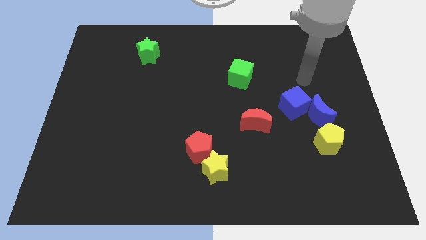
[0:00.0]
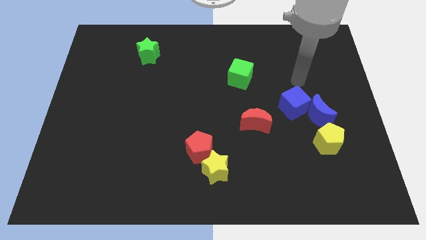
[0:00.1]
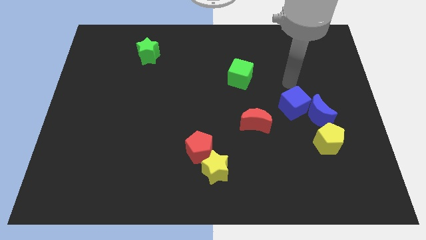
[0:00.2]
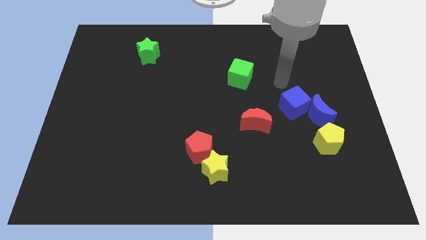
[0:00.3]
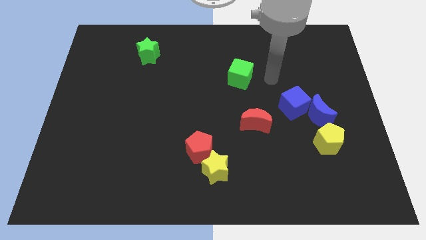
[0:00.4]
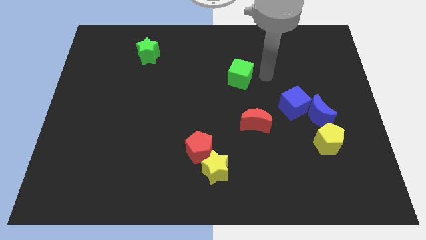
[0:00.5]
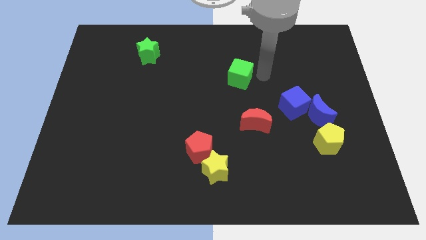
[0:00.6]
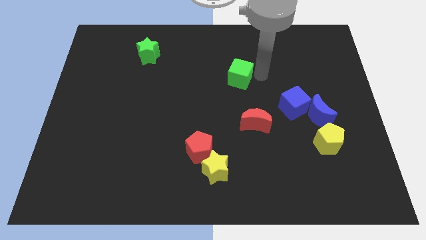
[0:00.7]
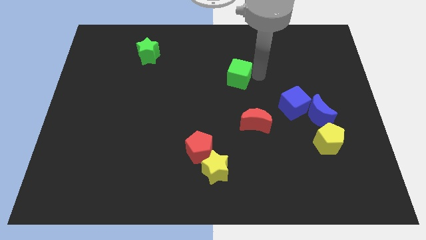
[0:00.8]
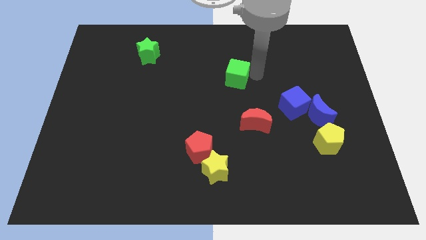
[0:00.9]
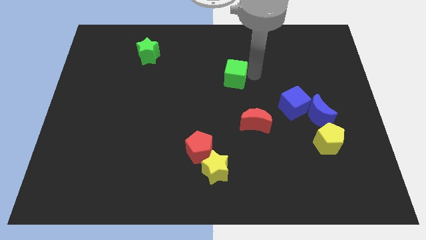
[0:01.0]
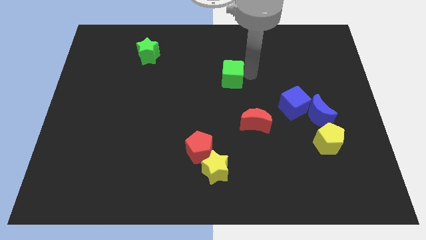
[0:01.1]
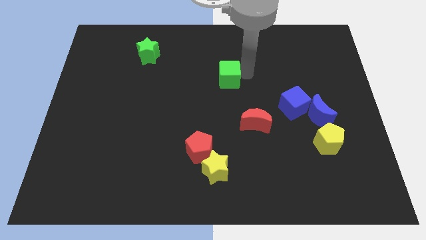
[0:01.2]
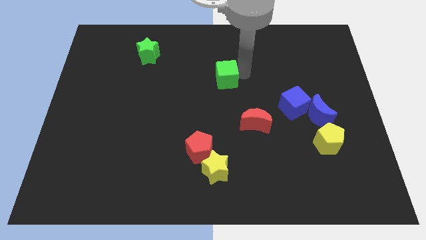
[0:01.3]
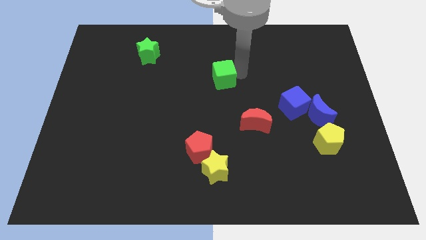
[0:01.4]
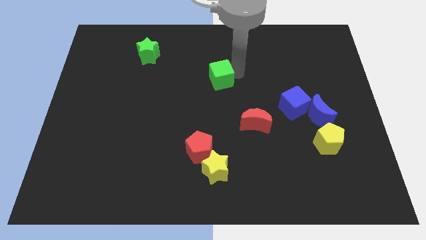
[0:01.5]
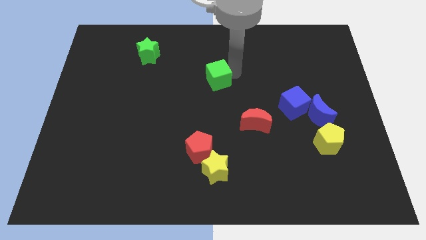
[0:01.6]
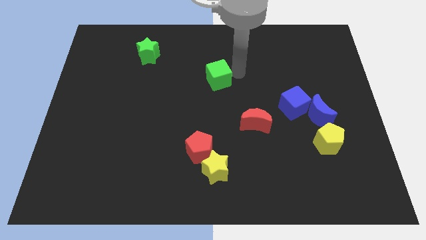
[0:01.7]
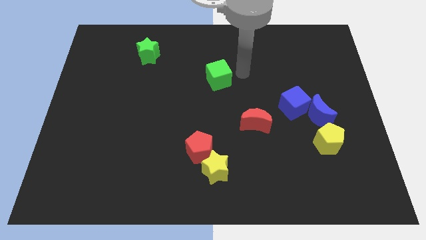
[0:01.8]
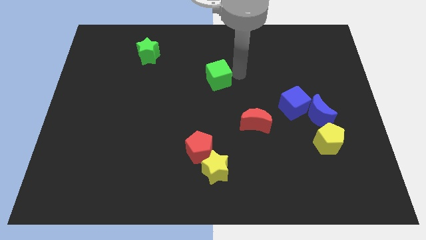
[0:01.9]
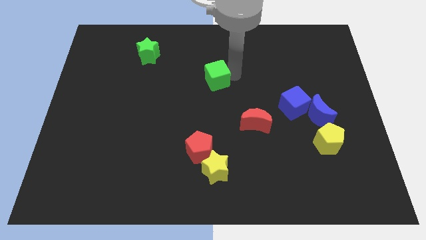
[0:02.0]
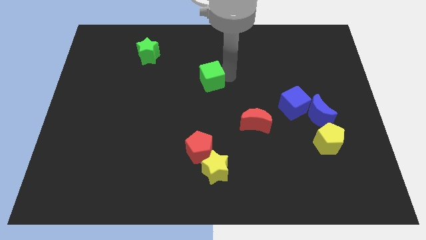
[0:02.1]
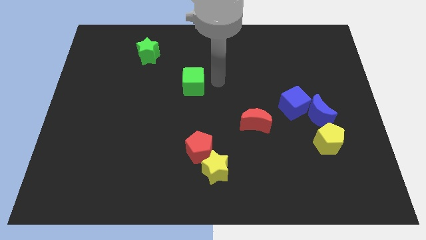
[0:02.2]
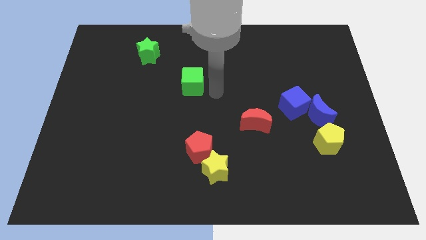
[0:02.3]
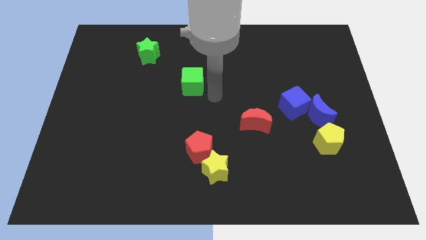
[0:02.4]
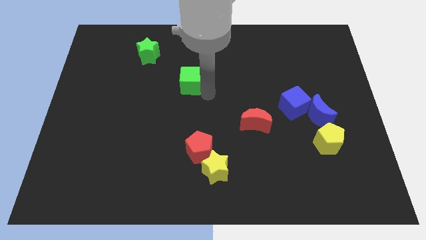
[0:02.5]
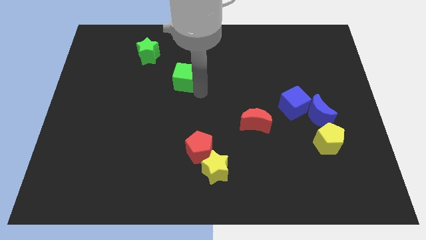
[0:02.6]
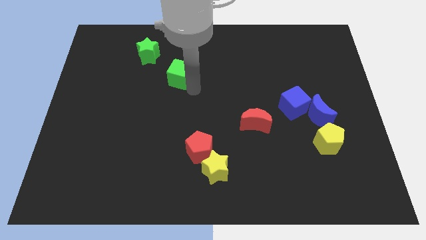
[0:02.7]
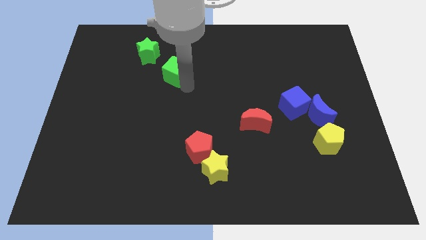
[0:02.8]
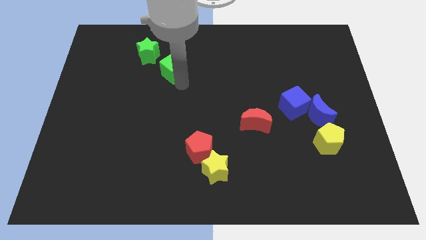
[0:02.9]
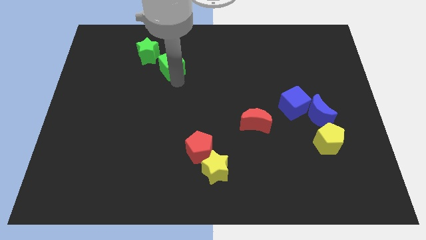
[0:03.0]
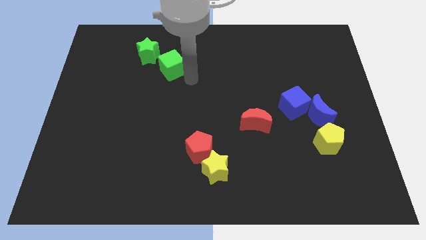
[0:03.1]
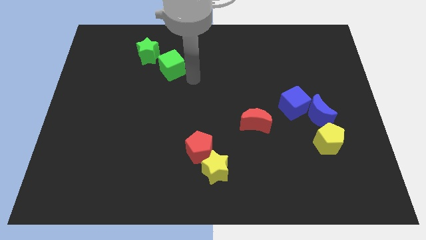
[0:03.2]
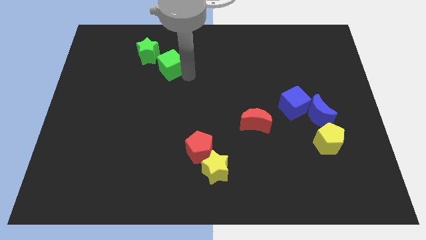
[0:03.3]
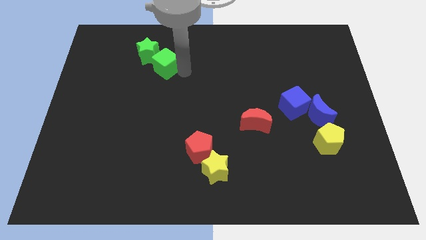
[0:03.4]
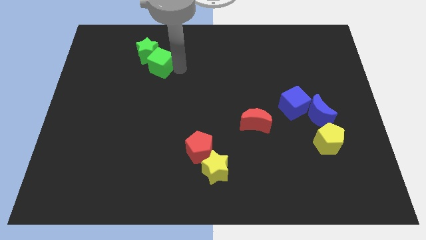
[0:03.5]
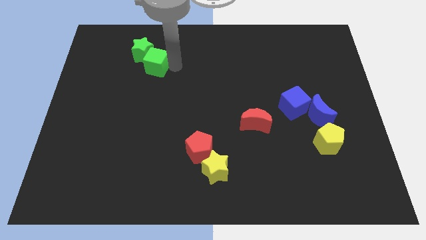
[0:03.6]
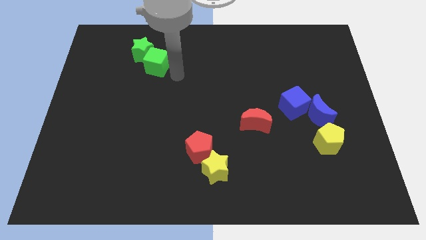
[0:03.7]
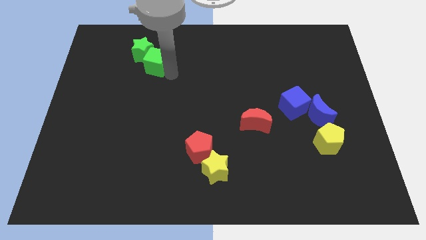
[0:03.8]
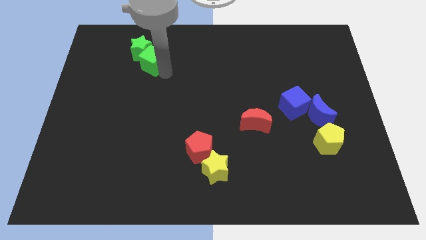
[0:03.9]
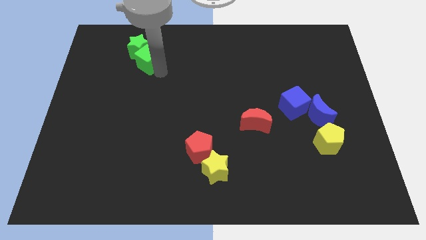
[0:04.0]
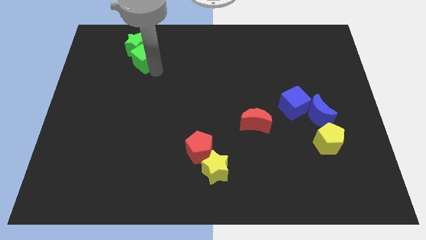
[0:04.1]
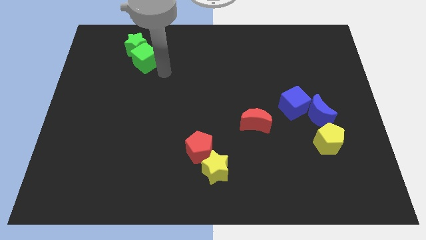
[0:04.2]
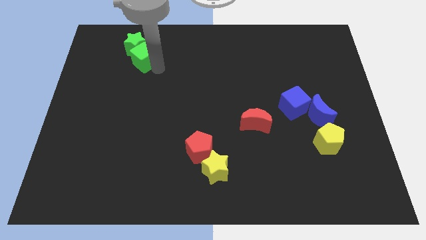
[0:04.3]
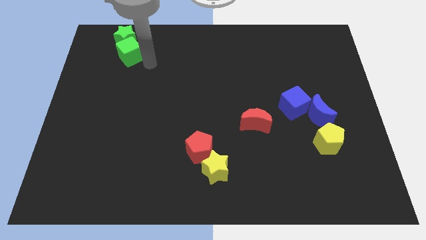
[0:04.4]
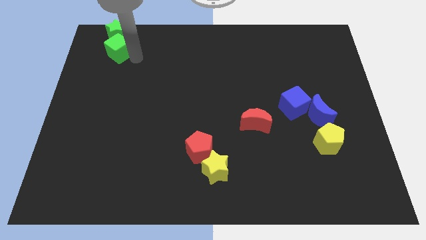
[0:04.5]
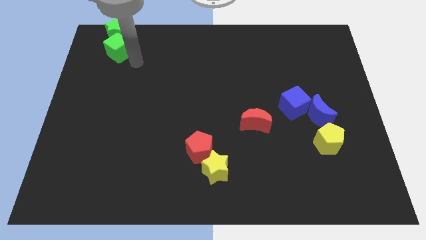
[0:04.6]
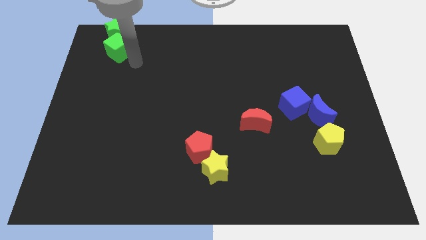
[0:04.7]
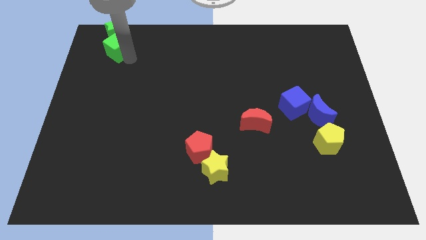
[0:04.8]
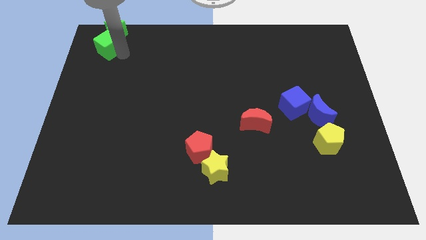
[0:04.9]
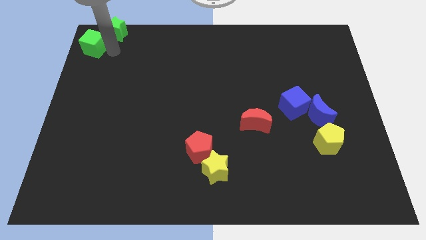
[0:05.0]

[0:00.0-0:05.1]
slide the green cube to the top left of the board

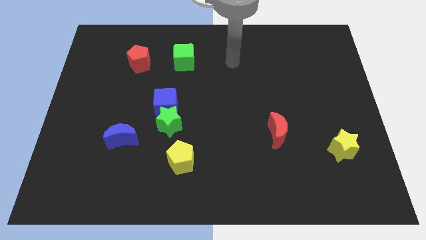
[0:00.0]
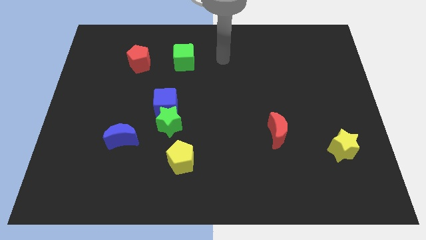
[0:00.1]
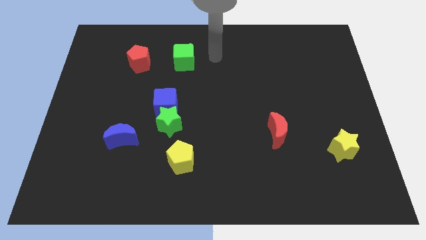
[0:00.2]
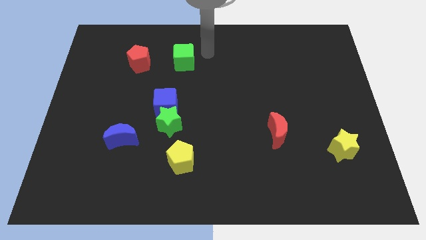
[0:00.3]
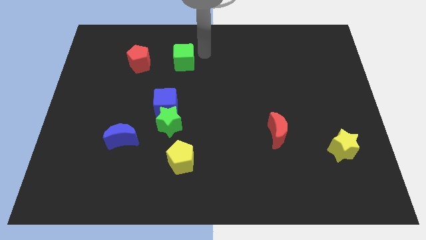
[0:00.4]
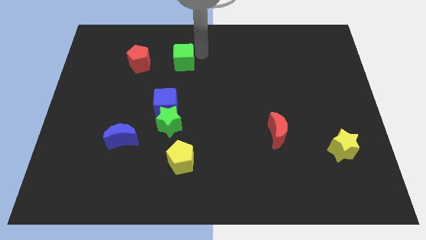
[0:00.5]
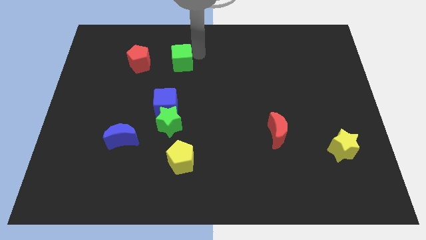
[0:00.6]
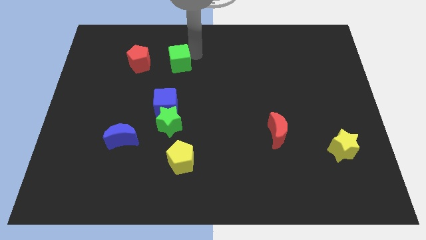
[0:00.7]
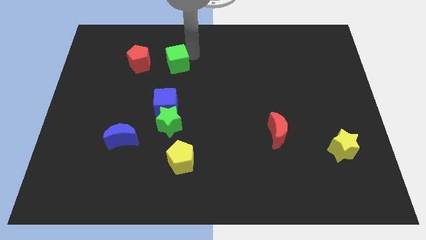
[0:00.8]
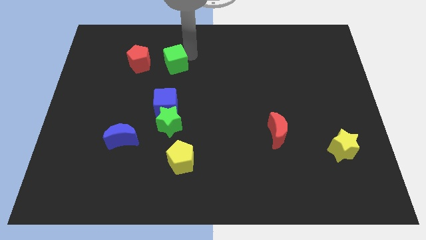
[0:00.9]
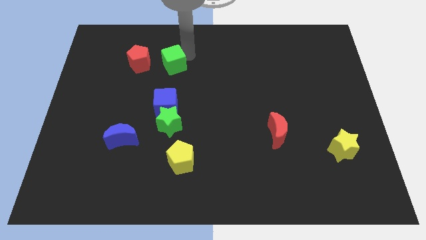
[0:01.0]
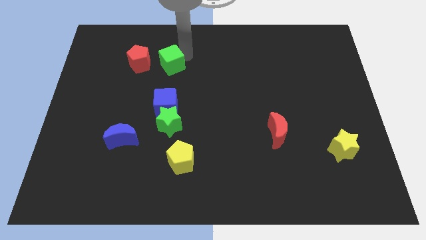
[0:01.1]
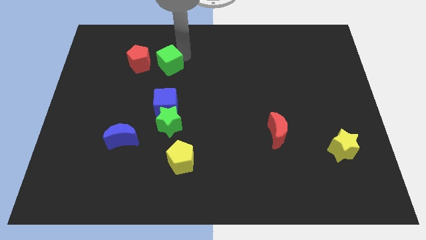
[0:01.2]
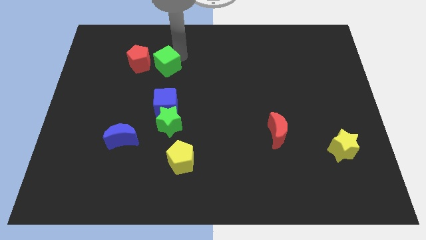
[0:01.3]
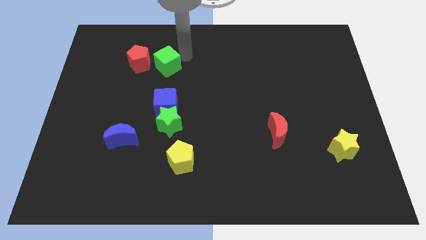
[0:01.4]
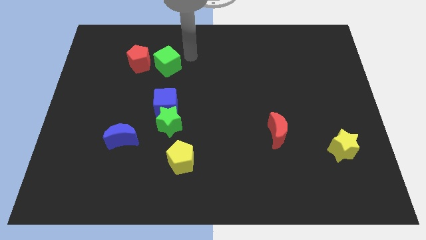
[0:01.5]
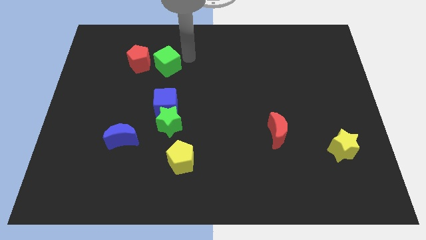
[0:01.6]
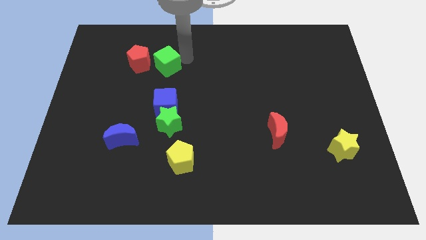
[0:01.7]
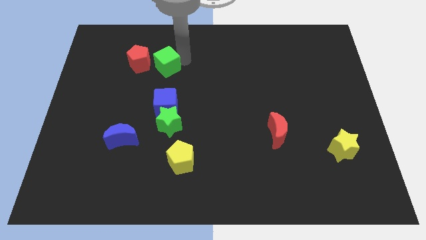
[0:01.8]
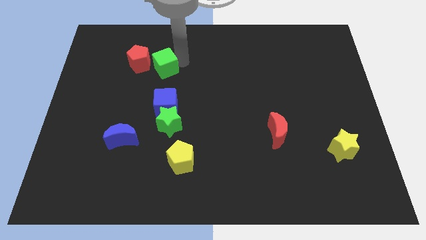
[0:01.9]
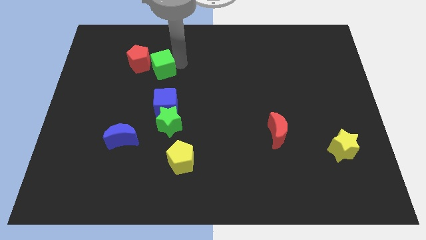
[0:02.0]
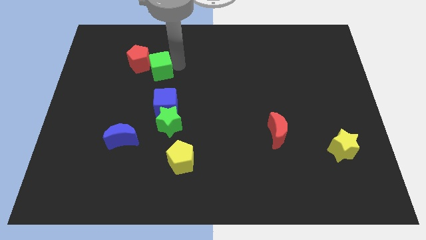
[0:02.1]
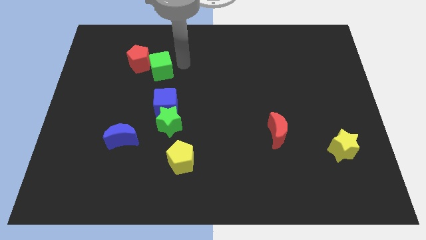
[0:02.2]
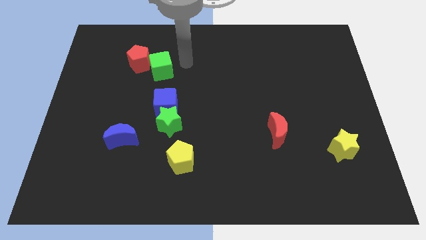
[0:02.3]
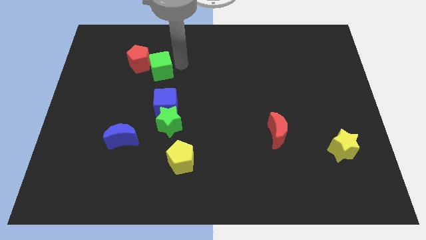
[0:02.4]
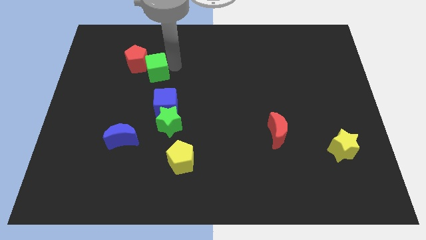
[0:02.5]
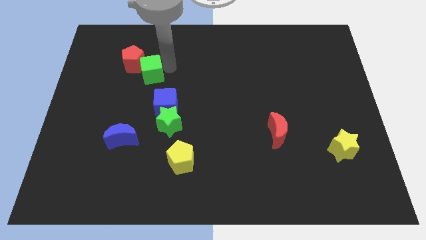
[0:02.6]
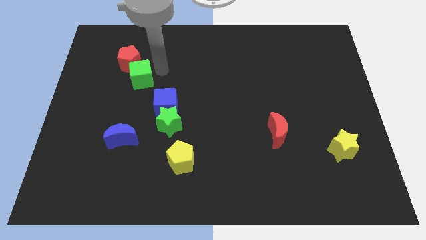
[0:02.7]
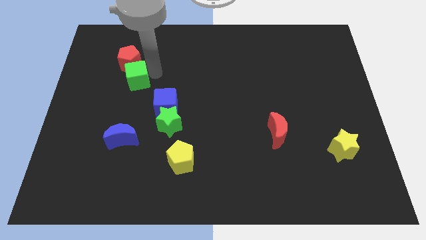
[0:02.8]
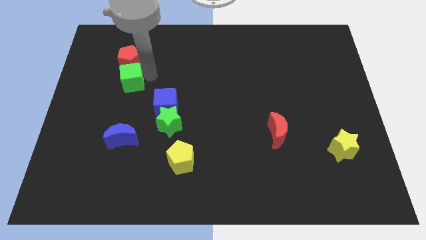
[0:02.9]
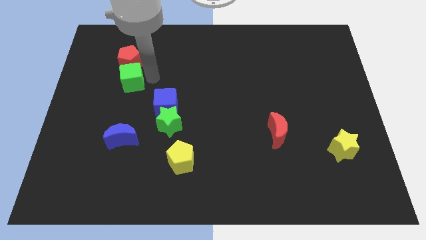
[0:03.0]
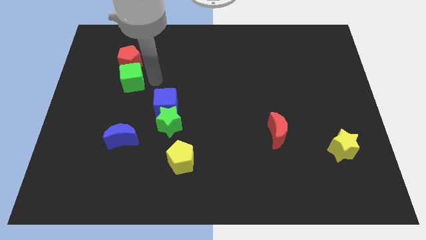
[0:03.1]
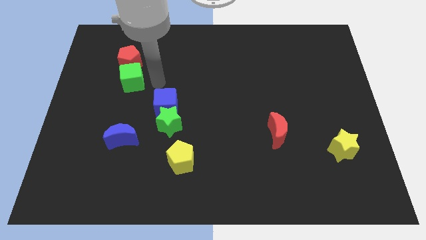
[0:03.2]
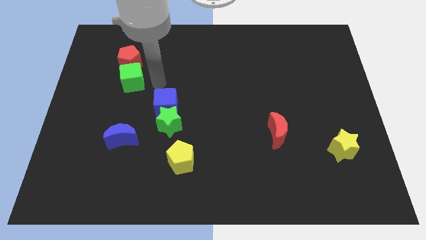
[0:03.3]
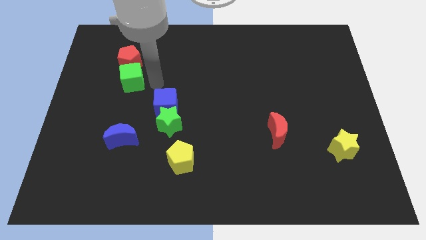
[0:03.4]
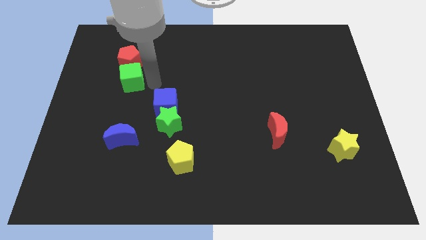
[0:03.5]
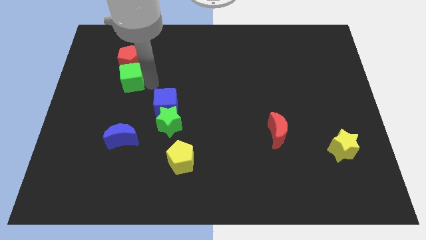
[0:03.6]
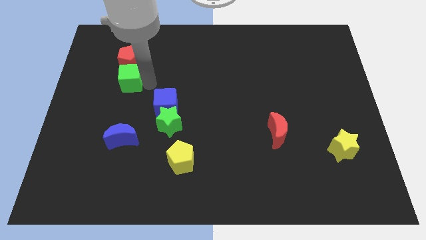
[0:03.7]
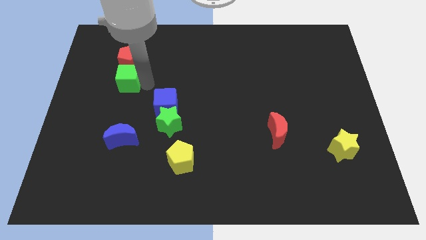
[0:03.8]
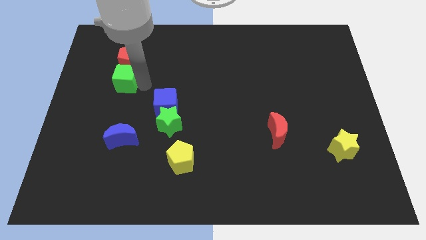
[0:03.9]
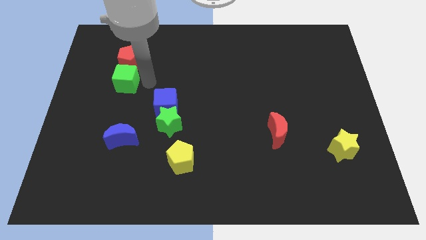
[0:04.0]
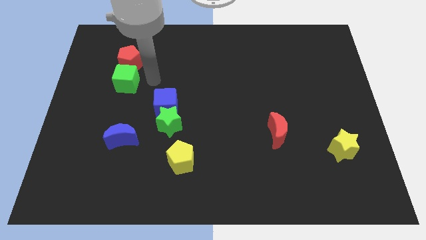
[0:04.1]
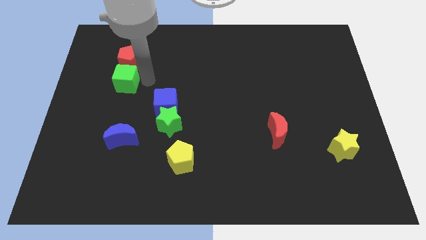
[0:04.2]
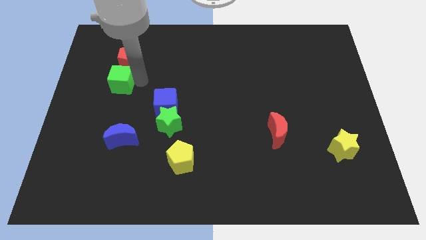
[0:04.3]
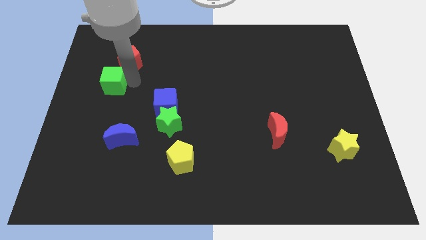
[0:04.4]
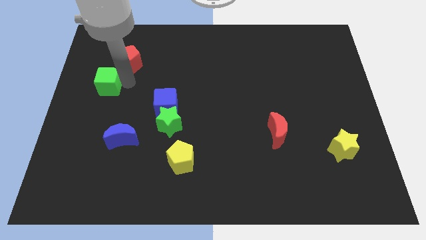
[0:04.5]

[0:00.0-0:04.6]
move the green cube to the left side
